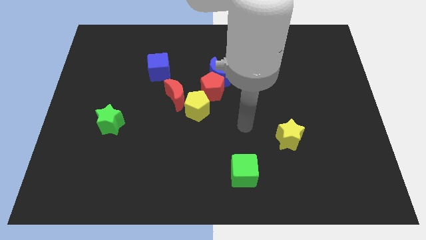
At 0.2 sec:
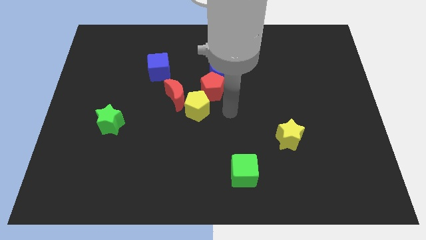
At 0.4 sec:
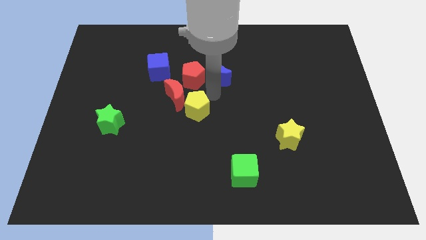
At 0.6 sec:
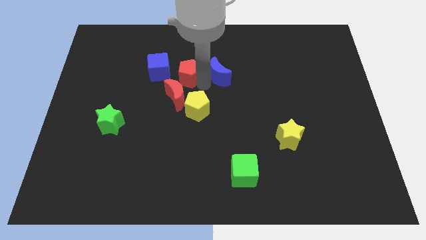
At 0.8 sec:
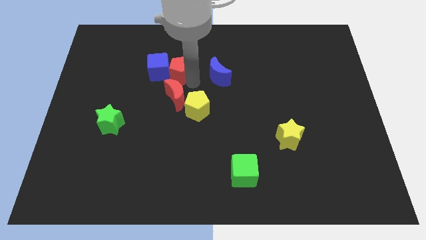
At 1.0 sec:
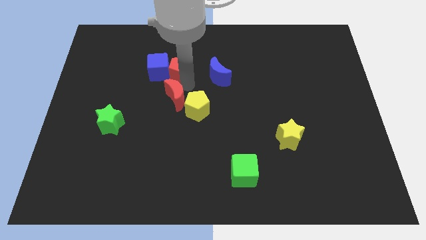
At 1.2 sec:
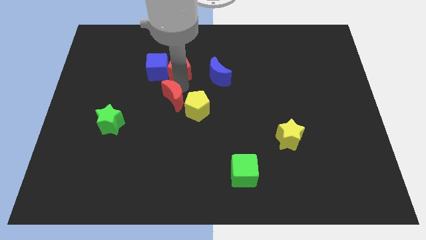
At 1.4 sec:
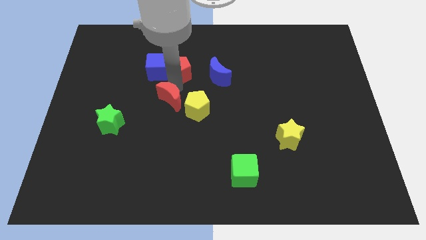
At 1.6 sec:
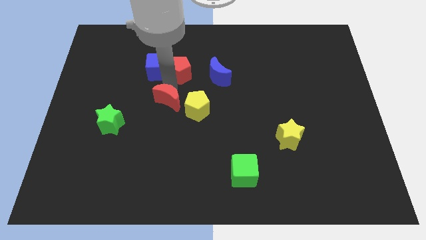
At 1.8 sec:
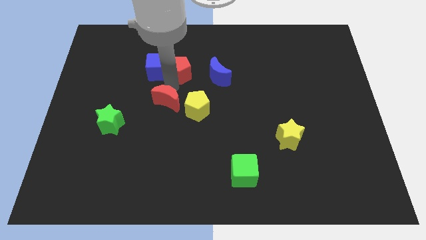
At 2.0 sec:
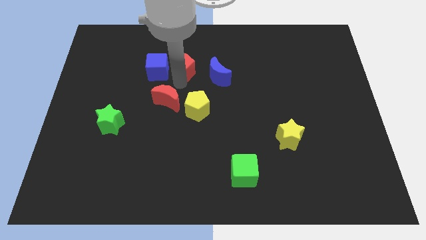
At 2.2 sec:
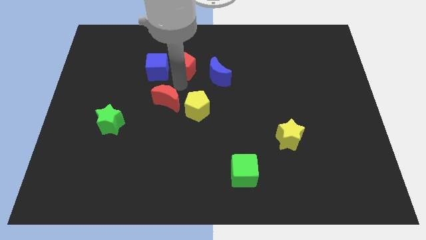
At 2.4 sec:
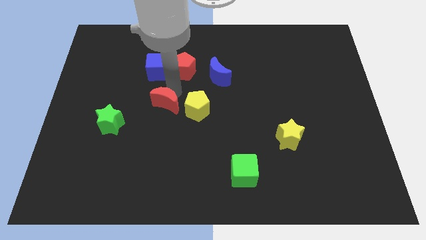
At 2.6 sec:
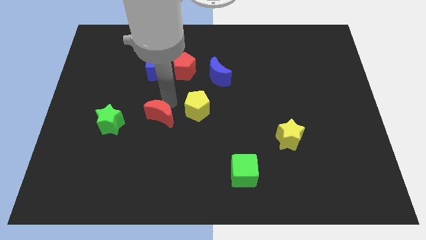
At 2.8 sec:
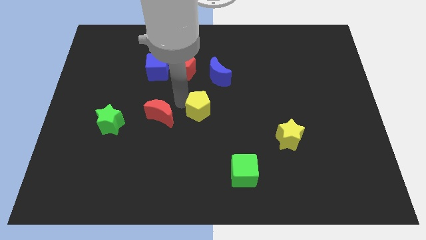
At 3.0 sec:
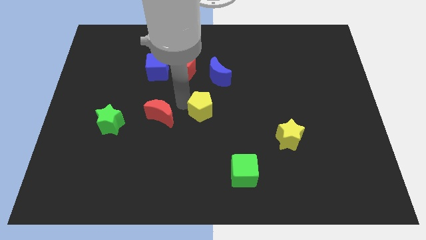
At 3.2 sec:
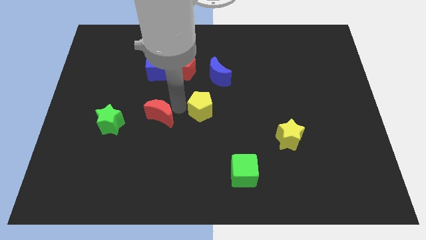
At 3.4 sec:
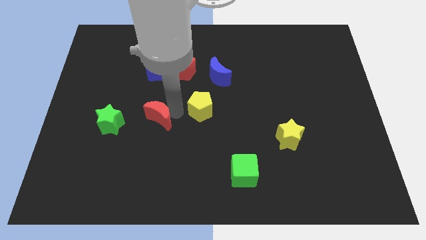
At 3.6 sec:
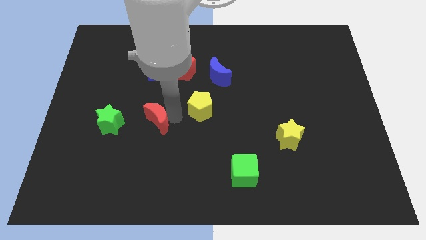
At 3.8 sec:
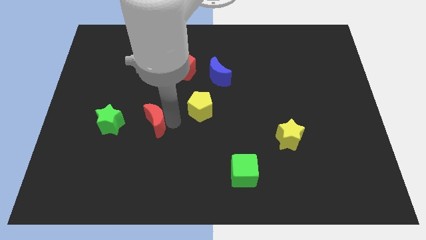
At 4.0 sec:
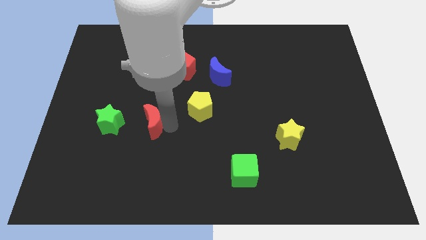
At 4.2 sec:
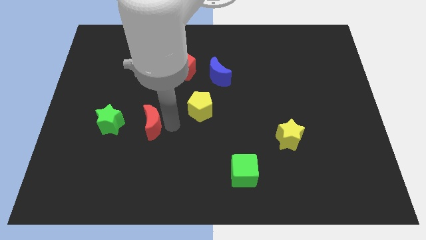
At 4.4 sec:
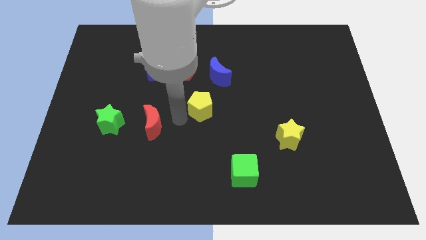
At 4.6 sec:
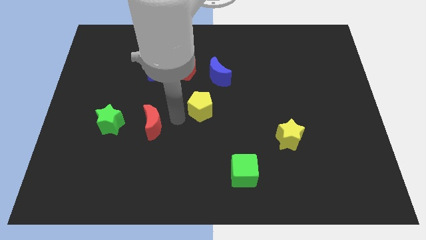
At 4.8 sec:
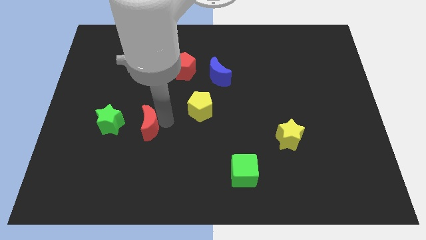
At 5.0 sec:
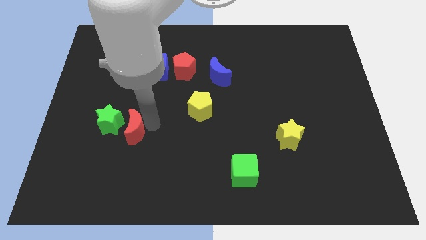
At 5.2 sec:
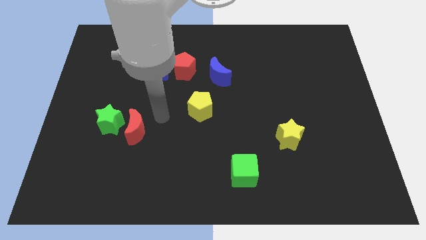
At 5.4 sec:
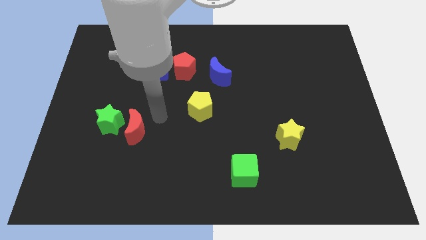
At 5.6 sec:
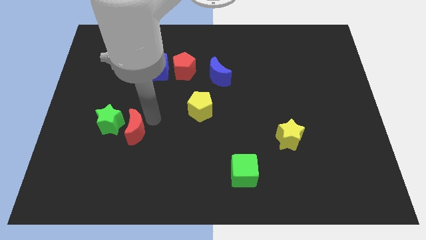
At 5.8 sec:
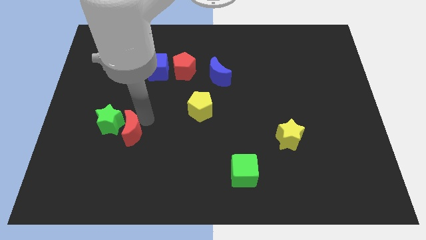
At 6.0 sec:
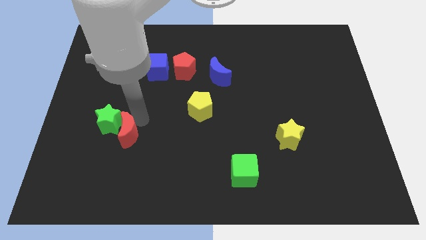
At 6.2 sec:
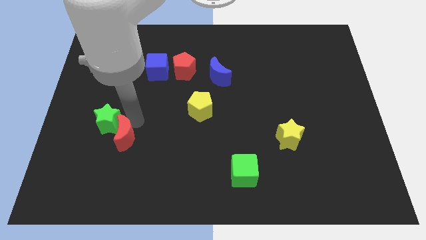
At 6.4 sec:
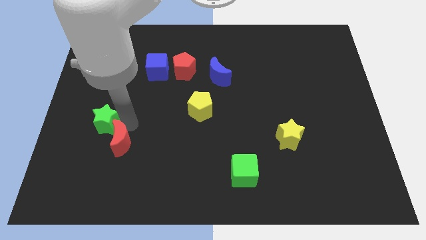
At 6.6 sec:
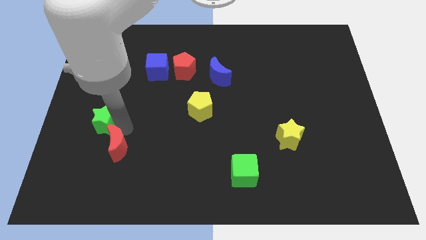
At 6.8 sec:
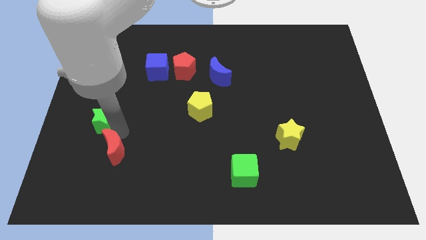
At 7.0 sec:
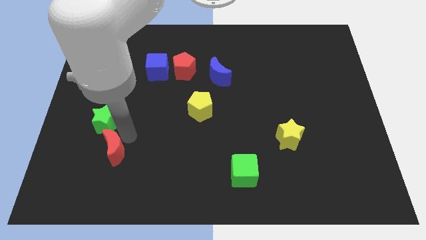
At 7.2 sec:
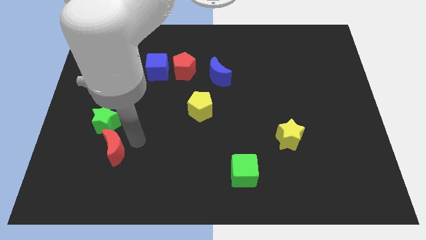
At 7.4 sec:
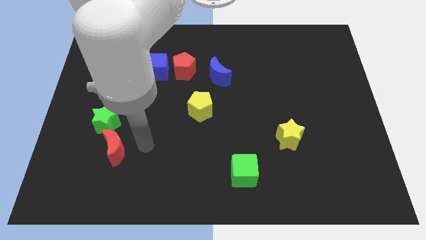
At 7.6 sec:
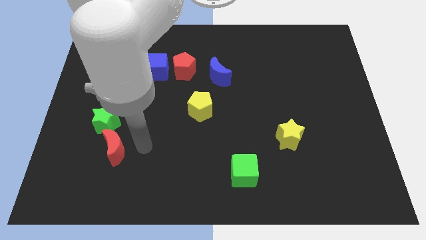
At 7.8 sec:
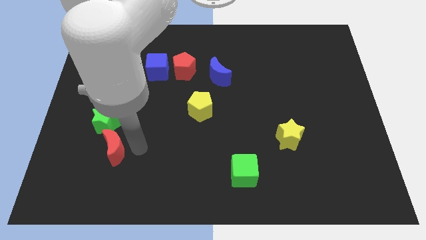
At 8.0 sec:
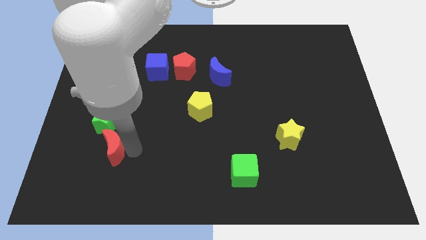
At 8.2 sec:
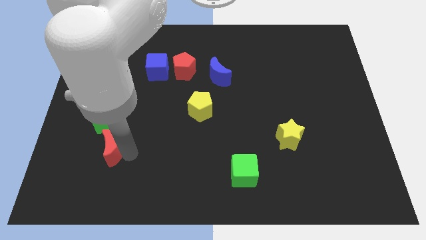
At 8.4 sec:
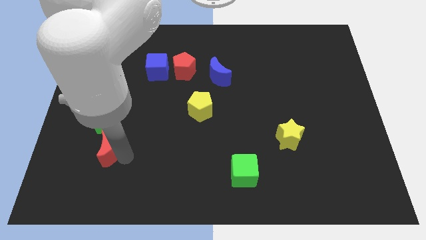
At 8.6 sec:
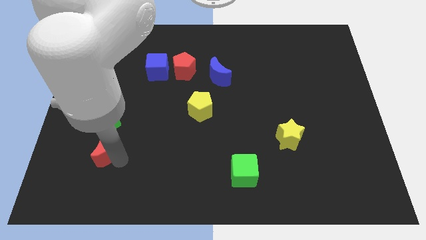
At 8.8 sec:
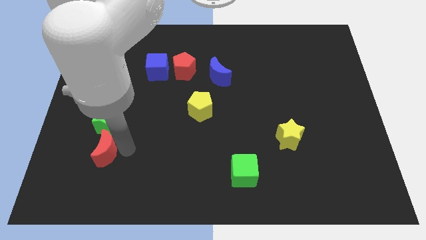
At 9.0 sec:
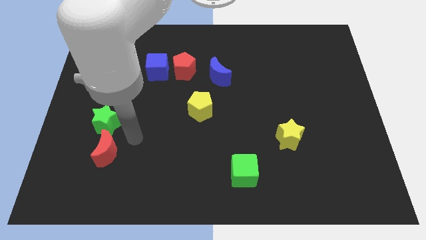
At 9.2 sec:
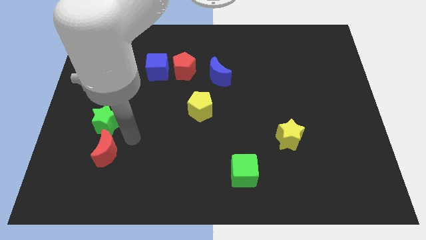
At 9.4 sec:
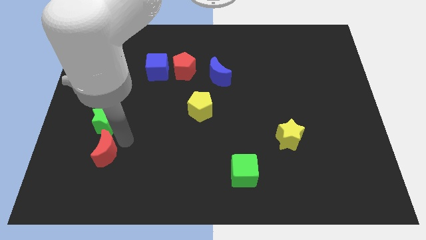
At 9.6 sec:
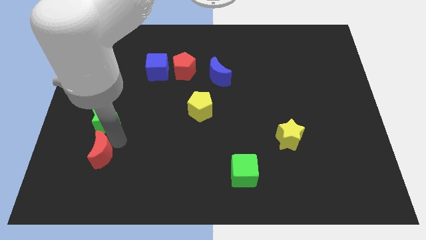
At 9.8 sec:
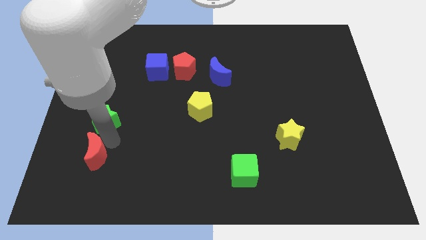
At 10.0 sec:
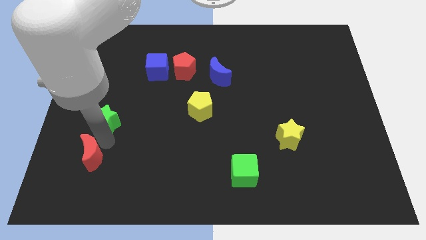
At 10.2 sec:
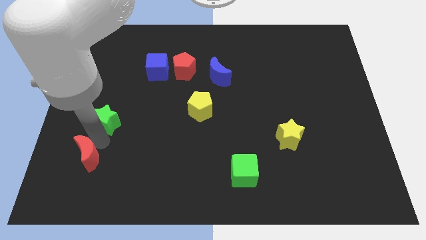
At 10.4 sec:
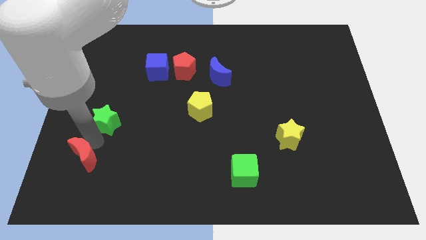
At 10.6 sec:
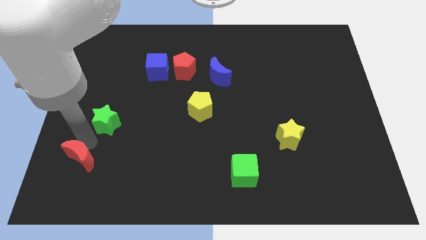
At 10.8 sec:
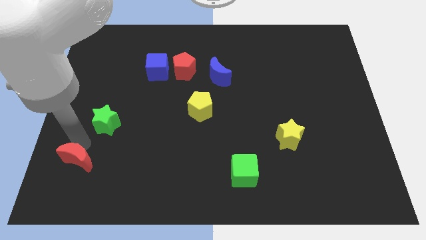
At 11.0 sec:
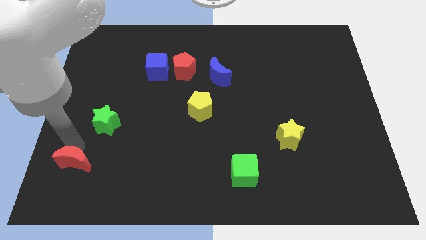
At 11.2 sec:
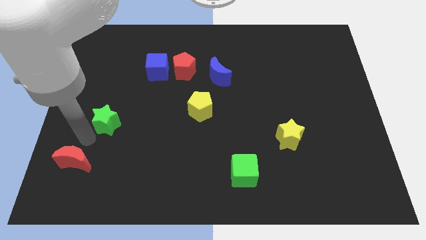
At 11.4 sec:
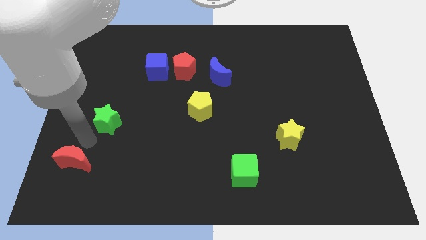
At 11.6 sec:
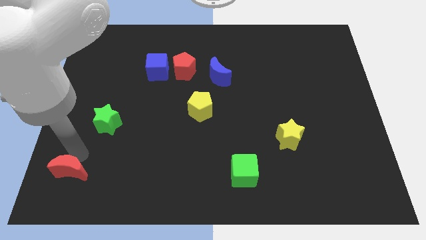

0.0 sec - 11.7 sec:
put the red moon to the bottom left

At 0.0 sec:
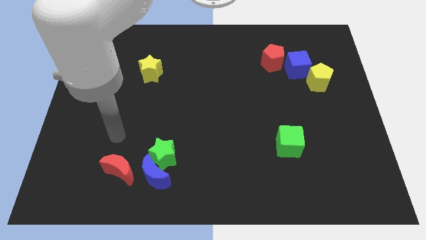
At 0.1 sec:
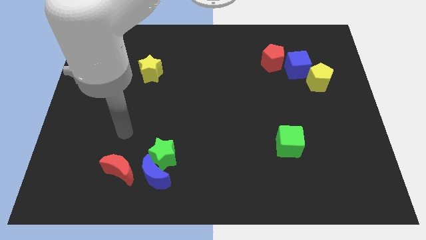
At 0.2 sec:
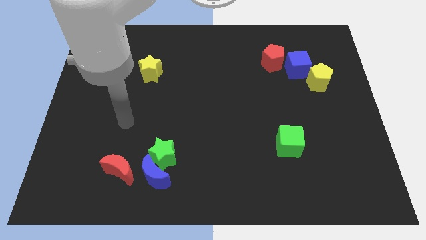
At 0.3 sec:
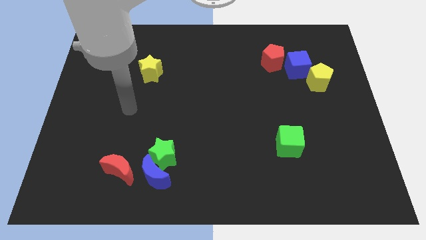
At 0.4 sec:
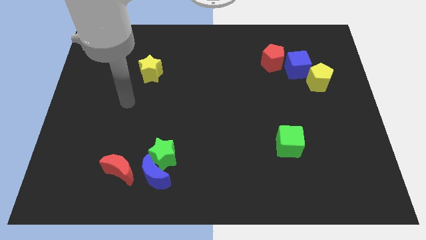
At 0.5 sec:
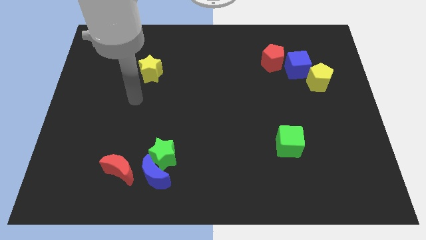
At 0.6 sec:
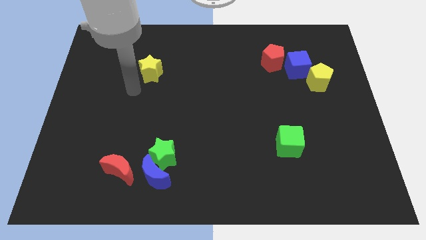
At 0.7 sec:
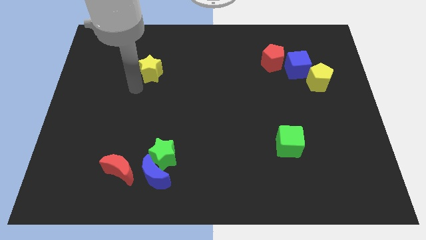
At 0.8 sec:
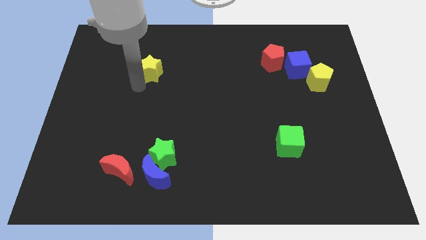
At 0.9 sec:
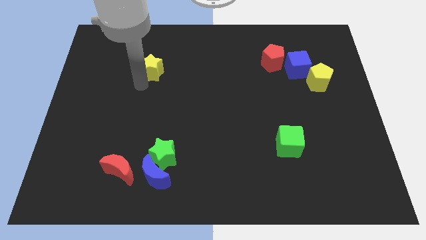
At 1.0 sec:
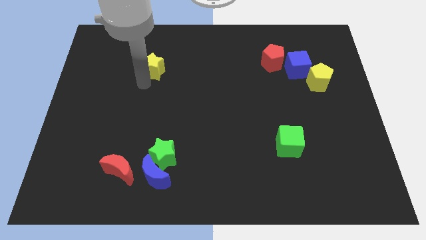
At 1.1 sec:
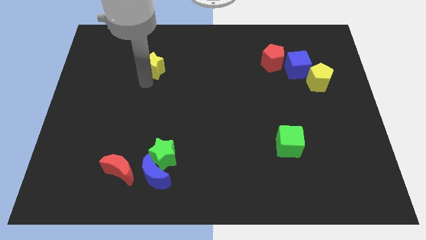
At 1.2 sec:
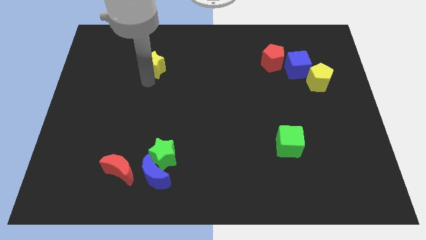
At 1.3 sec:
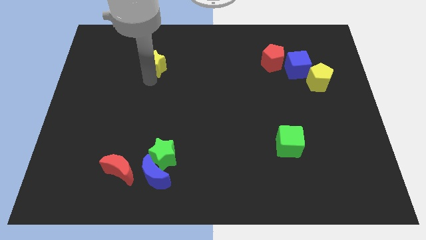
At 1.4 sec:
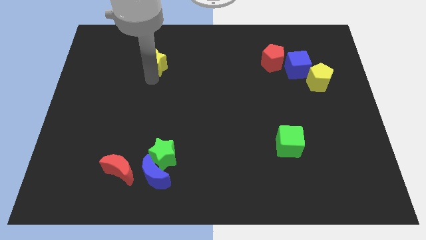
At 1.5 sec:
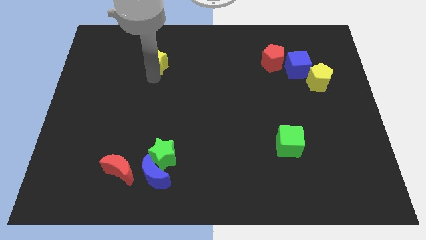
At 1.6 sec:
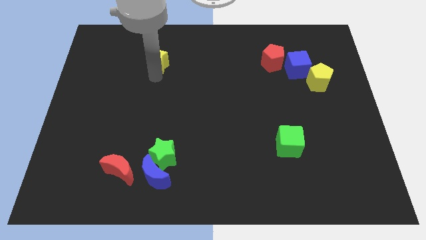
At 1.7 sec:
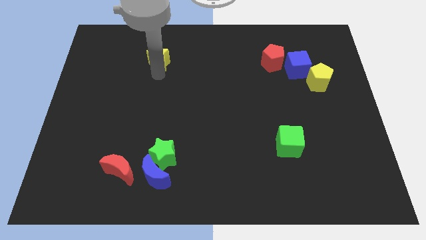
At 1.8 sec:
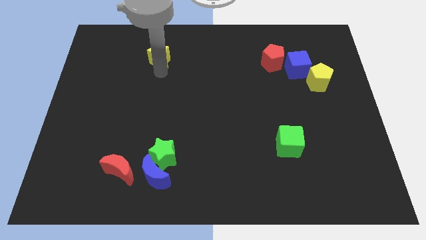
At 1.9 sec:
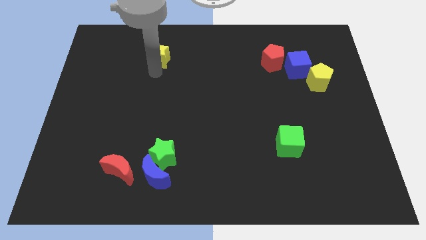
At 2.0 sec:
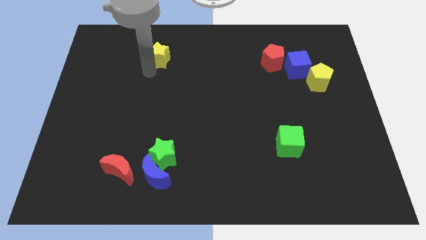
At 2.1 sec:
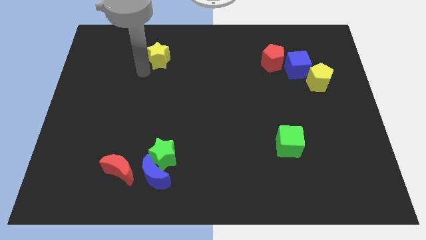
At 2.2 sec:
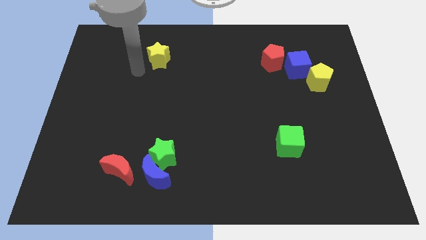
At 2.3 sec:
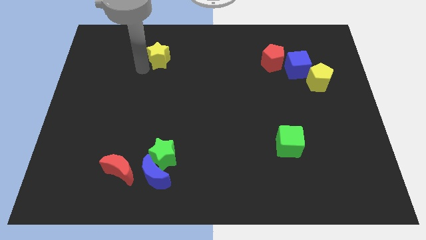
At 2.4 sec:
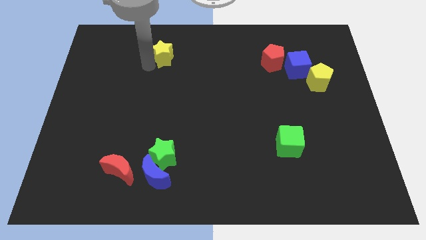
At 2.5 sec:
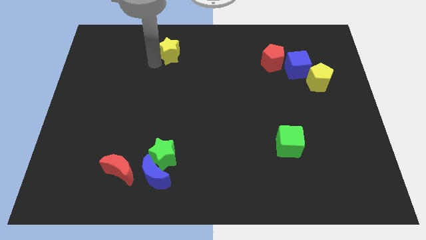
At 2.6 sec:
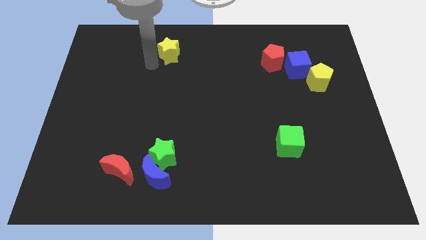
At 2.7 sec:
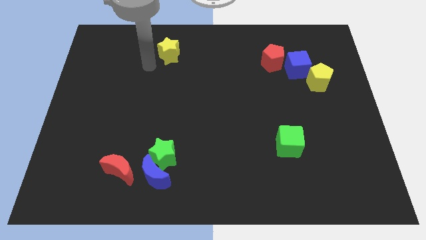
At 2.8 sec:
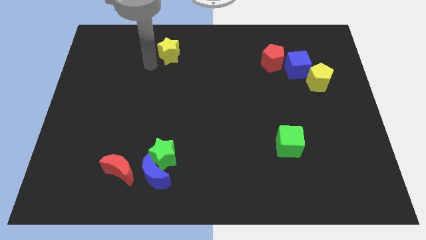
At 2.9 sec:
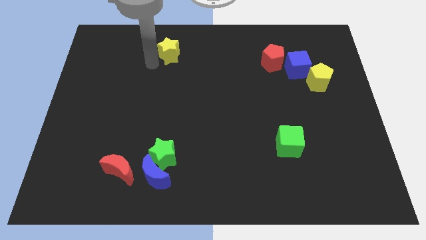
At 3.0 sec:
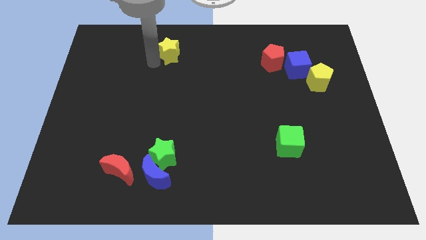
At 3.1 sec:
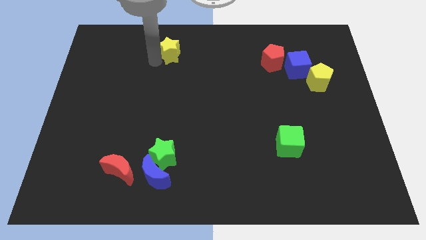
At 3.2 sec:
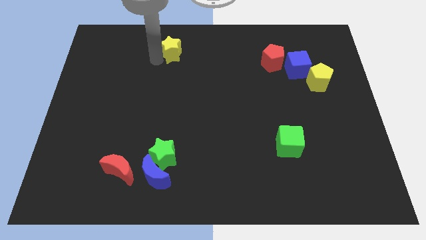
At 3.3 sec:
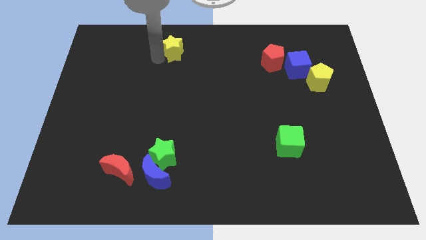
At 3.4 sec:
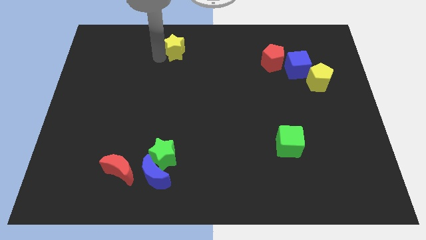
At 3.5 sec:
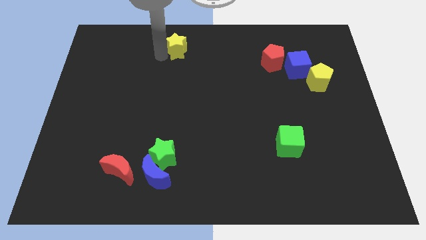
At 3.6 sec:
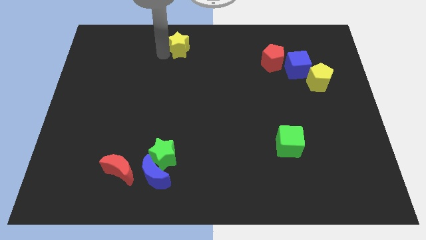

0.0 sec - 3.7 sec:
push the yellow star to the top side
